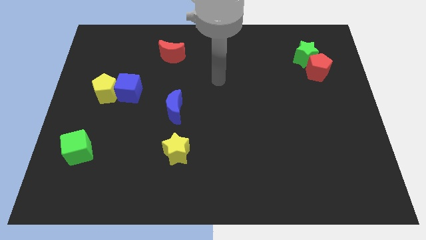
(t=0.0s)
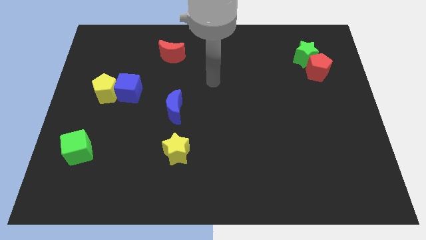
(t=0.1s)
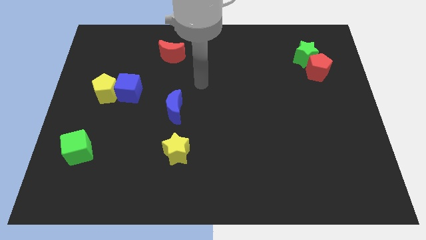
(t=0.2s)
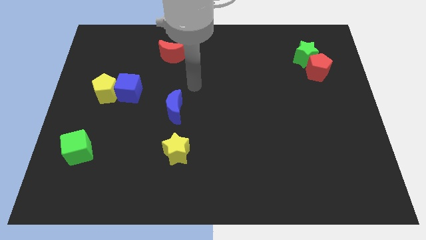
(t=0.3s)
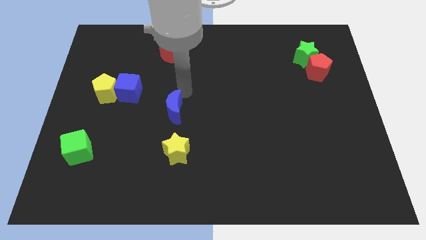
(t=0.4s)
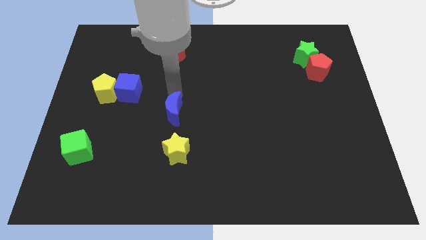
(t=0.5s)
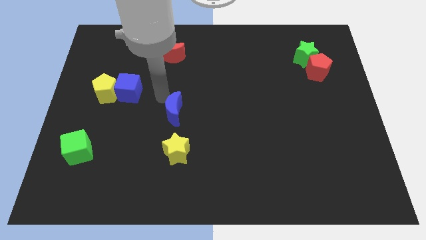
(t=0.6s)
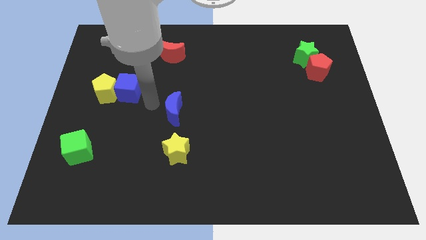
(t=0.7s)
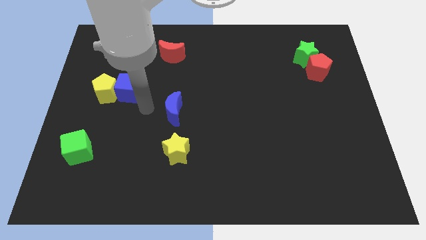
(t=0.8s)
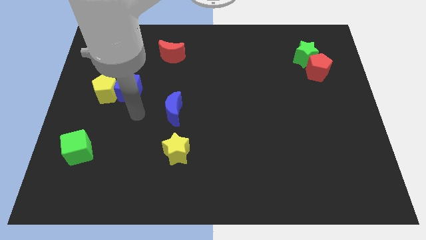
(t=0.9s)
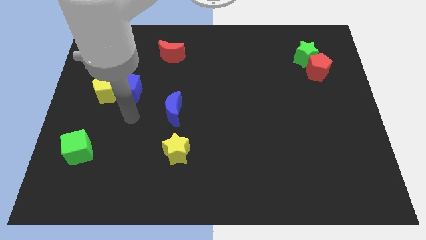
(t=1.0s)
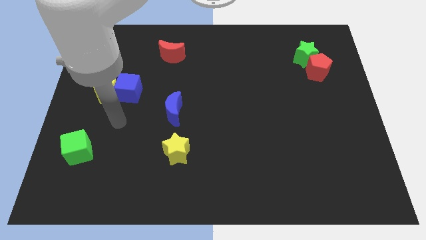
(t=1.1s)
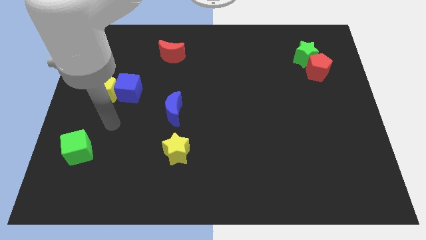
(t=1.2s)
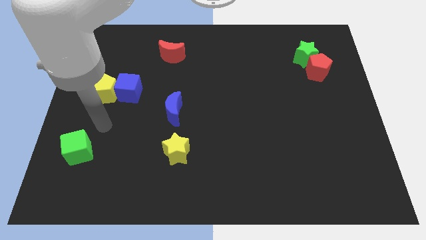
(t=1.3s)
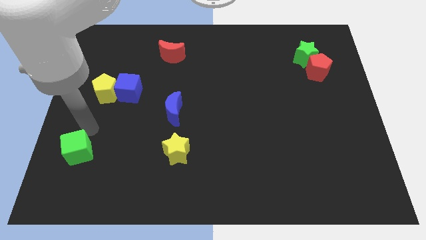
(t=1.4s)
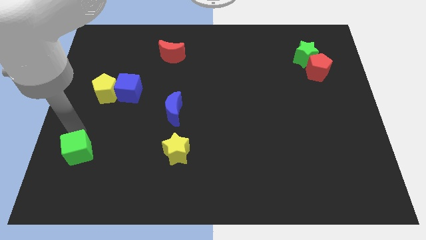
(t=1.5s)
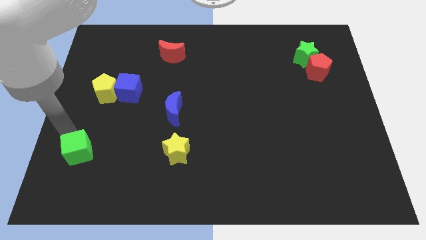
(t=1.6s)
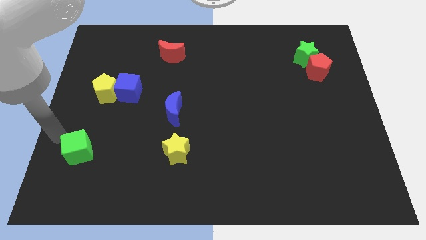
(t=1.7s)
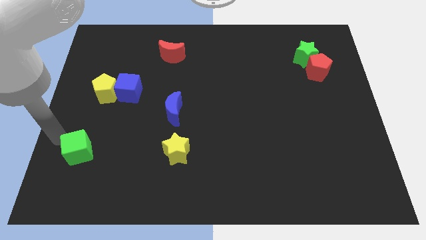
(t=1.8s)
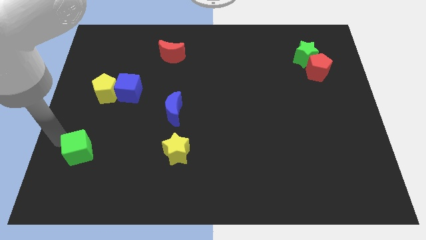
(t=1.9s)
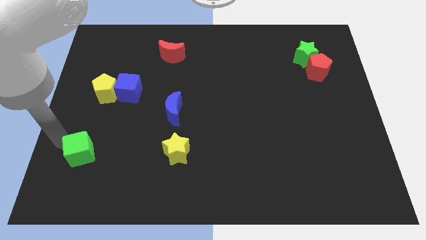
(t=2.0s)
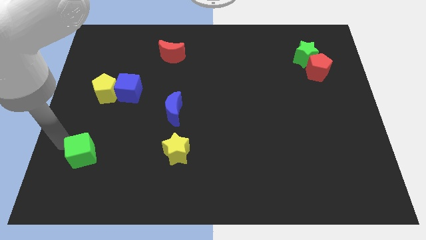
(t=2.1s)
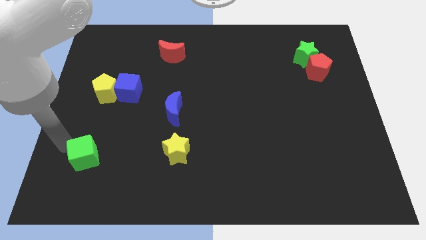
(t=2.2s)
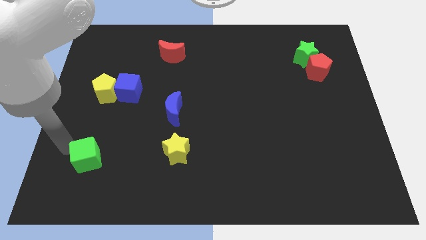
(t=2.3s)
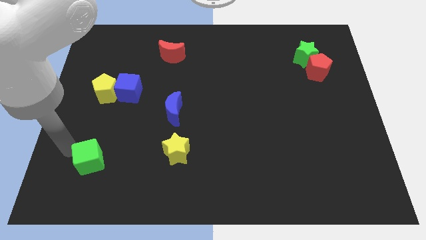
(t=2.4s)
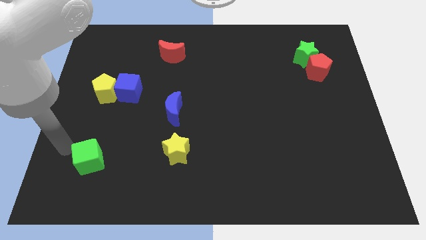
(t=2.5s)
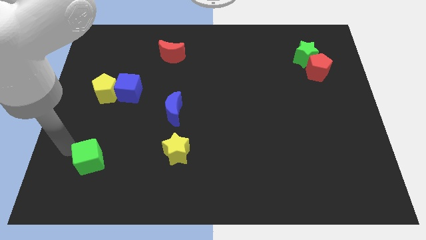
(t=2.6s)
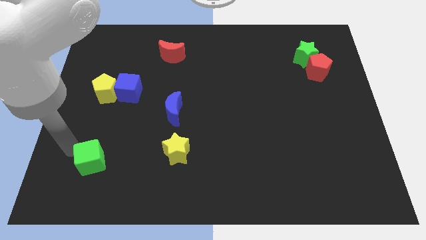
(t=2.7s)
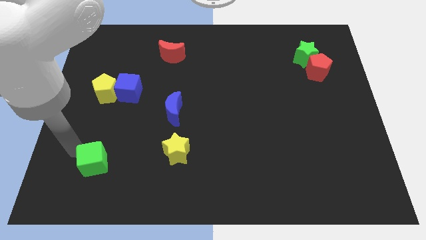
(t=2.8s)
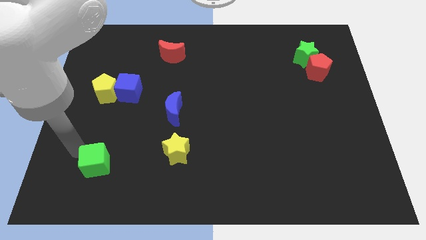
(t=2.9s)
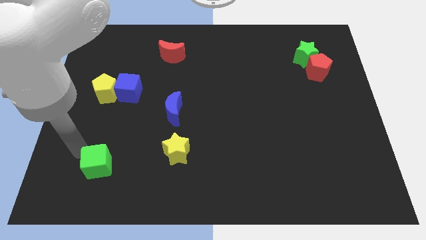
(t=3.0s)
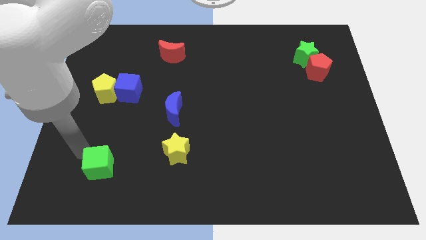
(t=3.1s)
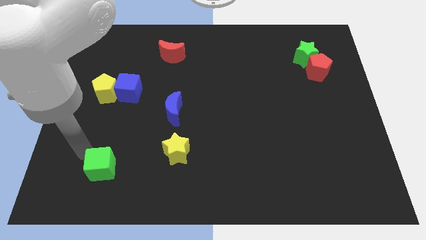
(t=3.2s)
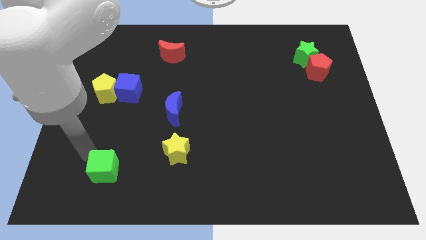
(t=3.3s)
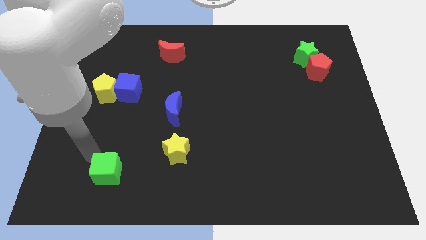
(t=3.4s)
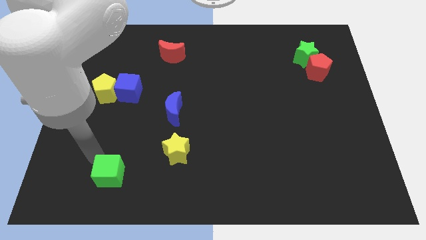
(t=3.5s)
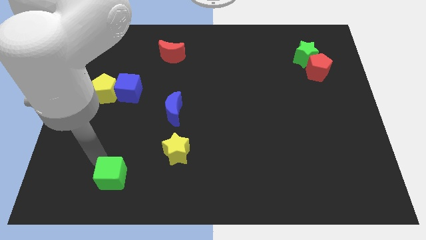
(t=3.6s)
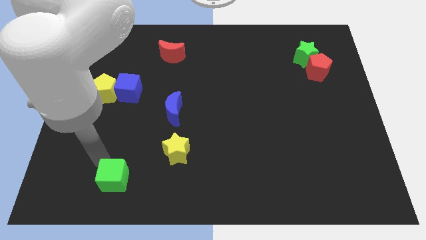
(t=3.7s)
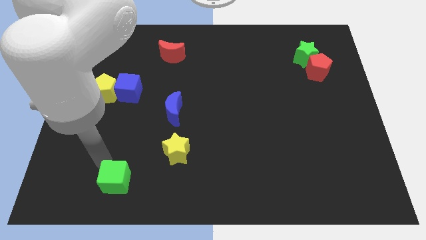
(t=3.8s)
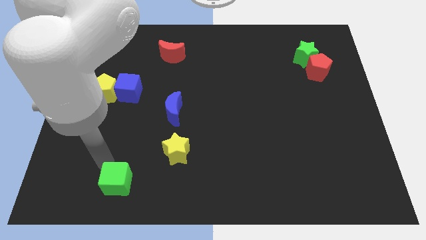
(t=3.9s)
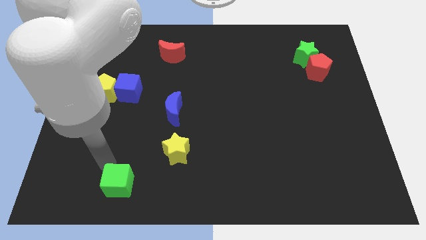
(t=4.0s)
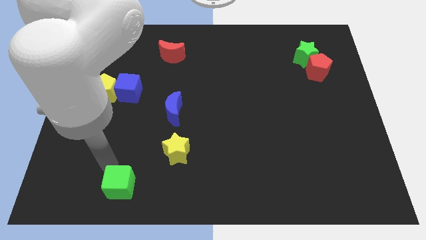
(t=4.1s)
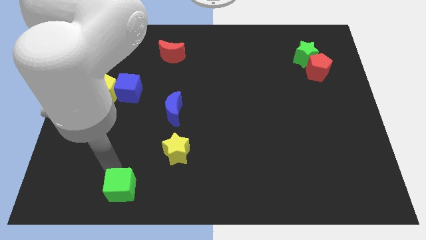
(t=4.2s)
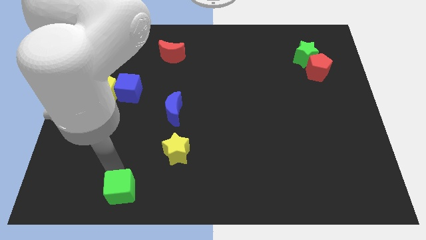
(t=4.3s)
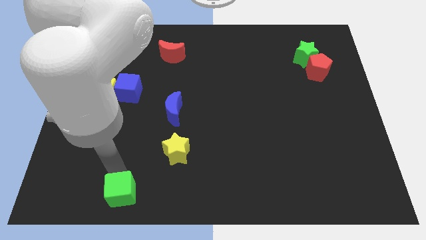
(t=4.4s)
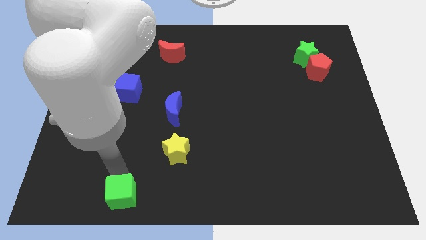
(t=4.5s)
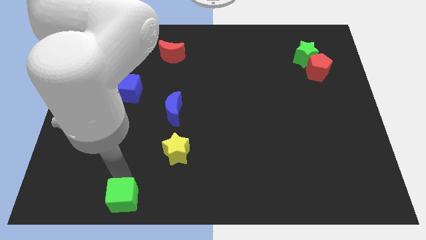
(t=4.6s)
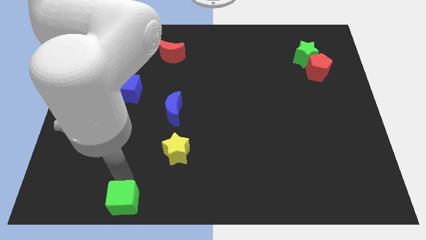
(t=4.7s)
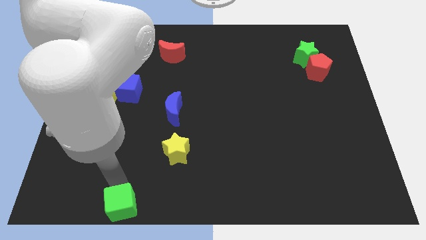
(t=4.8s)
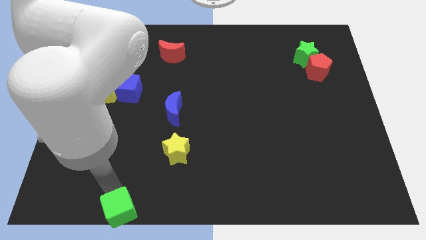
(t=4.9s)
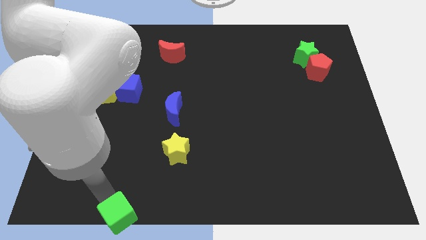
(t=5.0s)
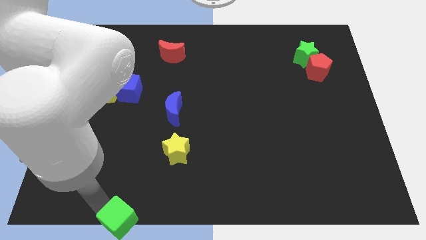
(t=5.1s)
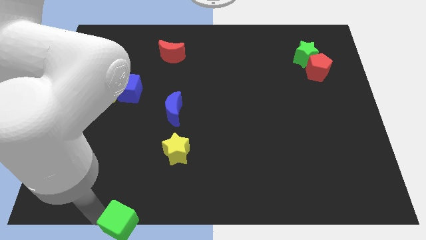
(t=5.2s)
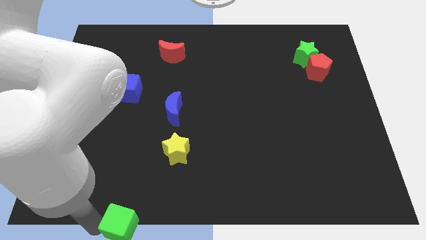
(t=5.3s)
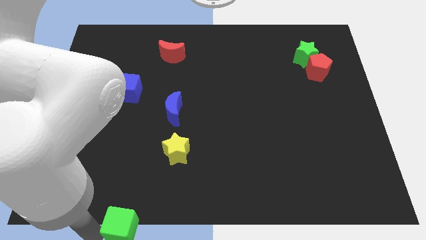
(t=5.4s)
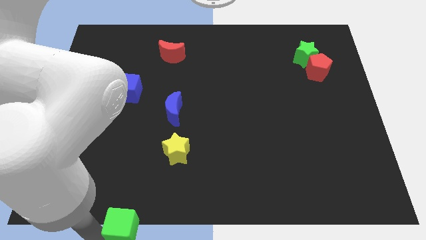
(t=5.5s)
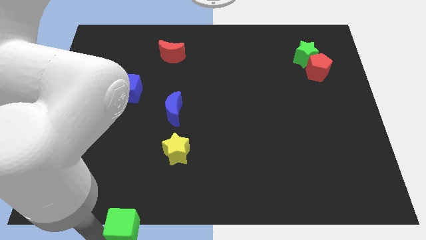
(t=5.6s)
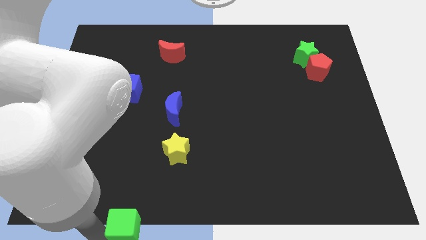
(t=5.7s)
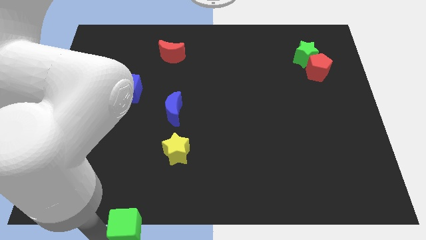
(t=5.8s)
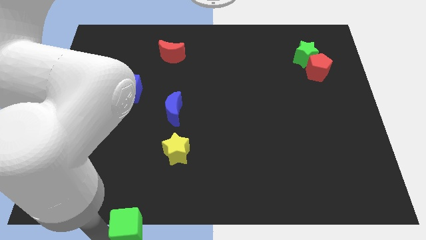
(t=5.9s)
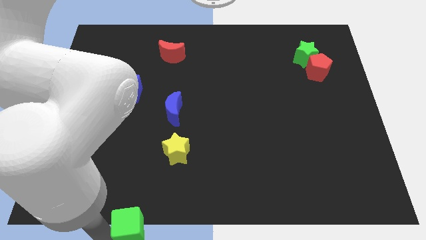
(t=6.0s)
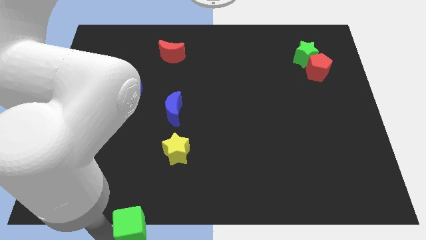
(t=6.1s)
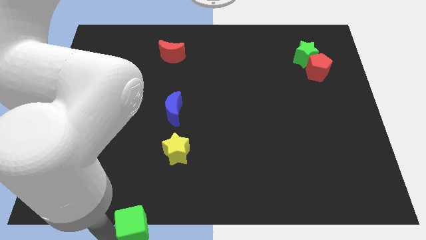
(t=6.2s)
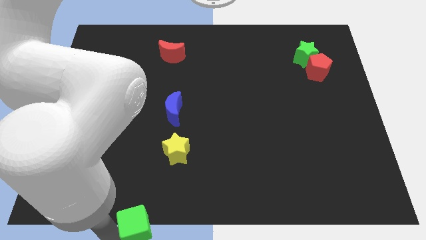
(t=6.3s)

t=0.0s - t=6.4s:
move the green cube to the bottom

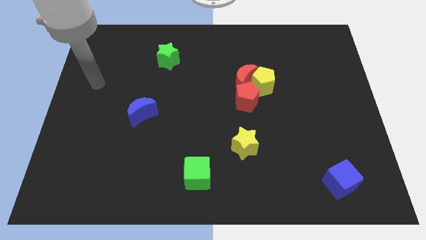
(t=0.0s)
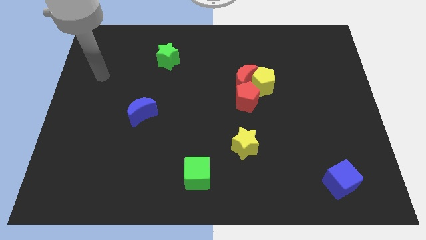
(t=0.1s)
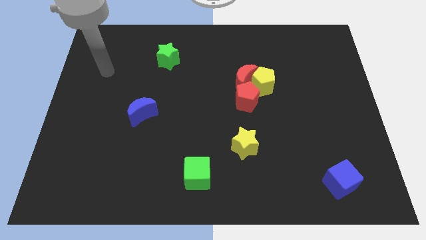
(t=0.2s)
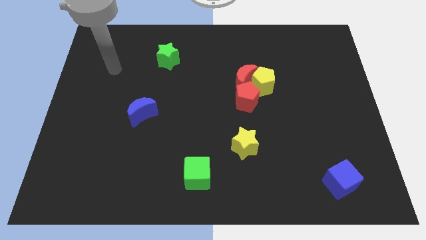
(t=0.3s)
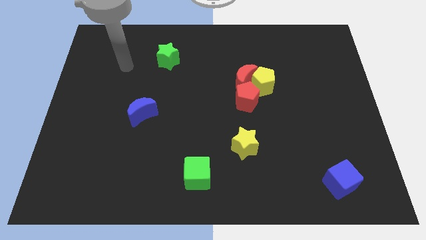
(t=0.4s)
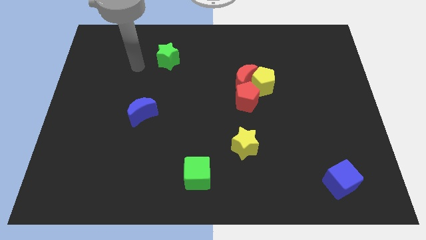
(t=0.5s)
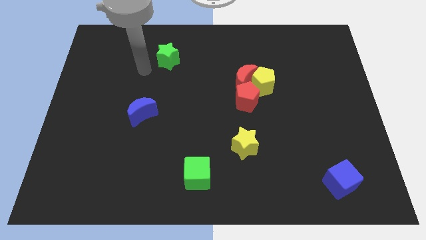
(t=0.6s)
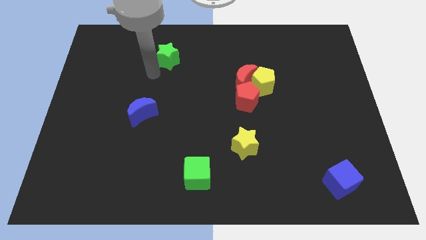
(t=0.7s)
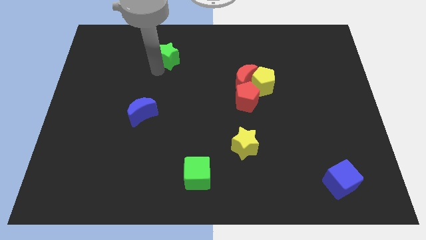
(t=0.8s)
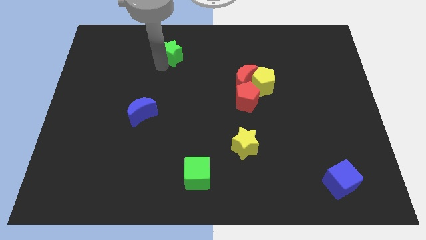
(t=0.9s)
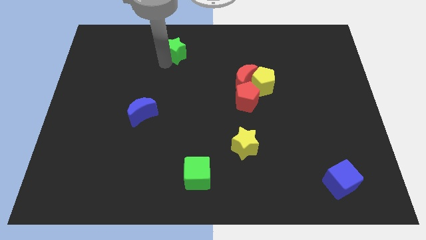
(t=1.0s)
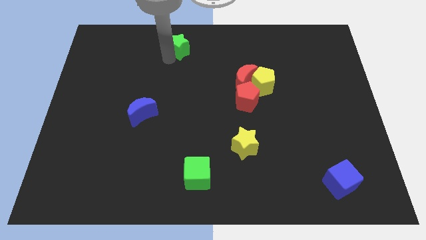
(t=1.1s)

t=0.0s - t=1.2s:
move the green star to the top side
